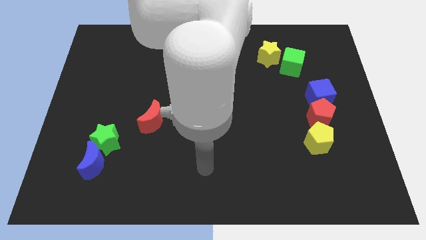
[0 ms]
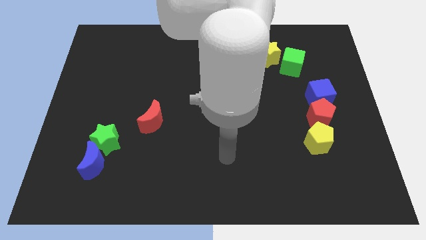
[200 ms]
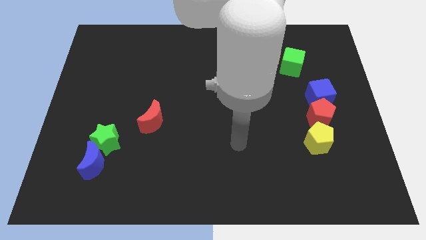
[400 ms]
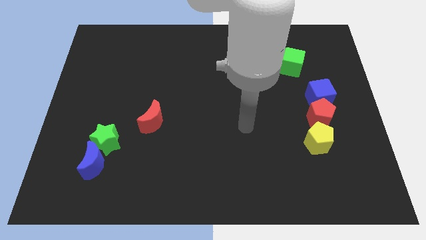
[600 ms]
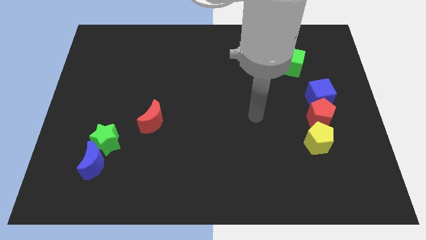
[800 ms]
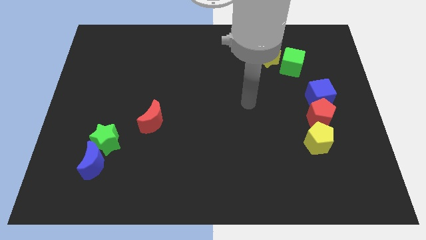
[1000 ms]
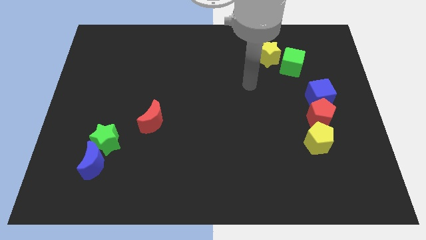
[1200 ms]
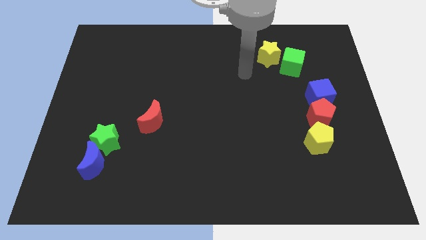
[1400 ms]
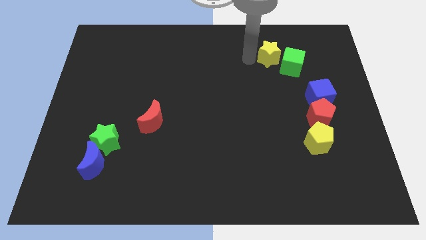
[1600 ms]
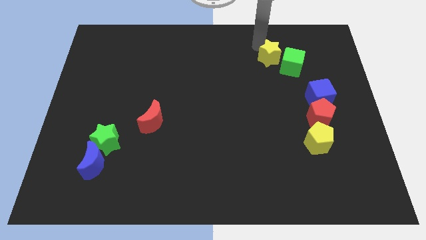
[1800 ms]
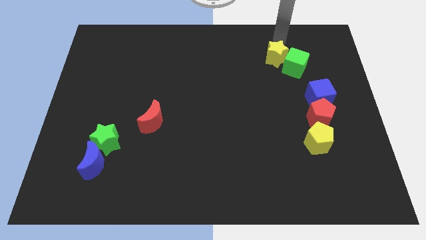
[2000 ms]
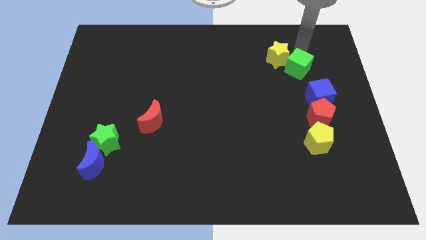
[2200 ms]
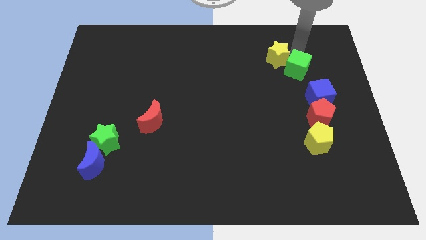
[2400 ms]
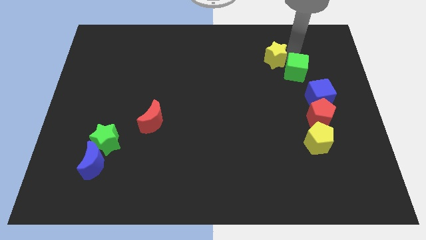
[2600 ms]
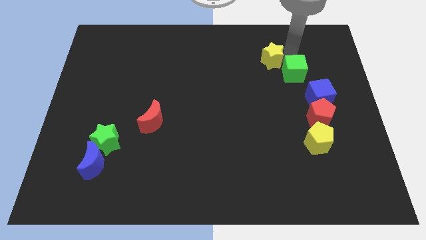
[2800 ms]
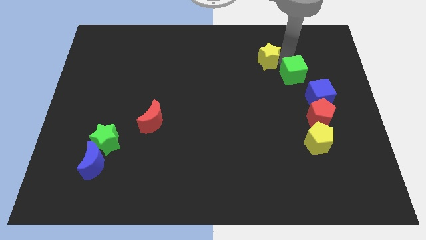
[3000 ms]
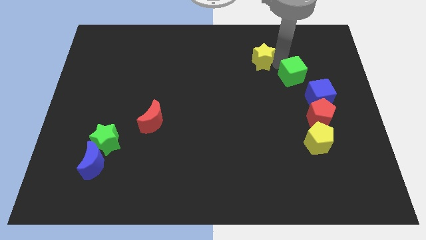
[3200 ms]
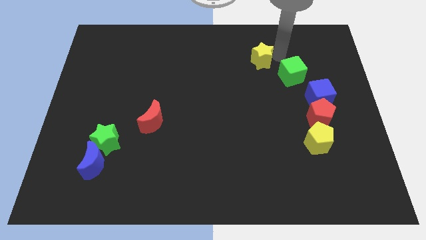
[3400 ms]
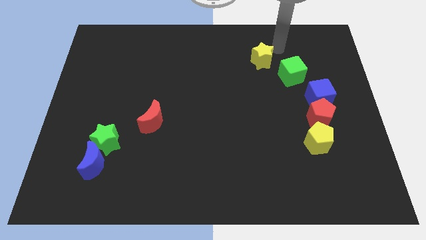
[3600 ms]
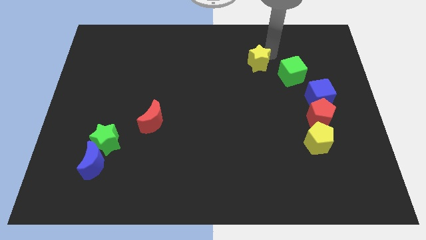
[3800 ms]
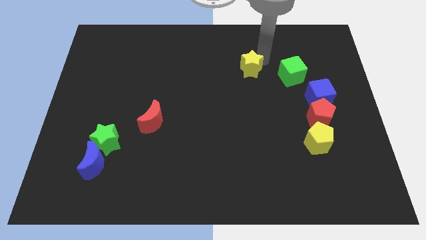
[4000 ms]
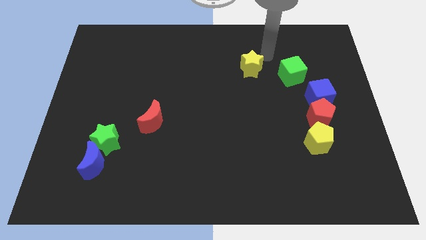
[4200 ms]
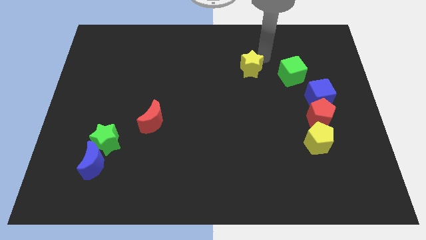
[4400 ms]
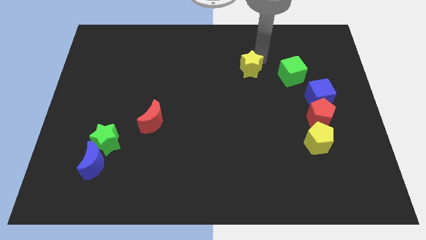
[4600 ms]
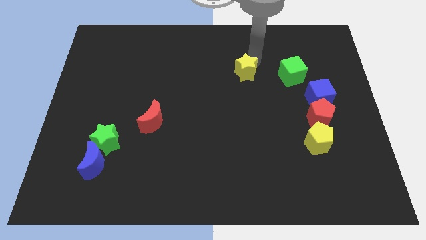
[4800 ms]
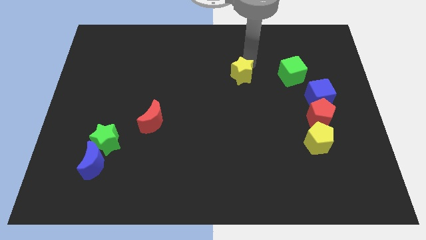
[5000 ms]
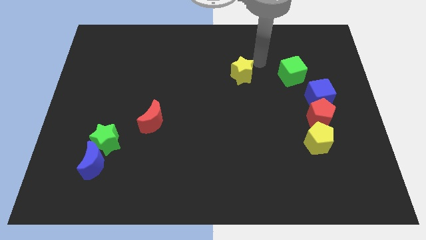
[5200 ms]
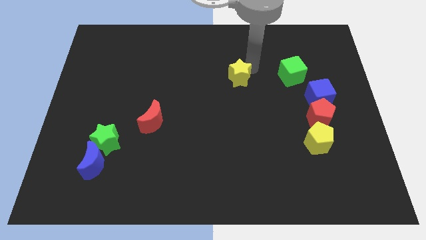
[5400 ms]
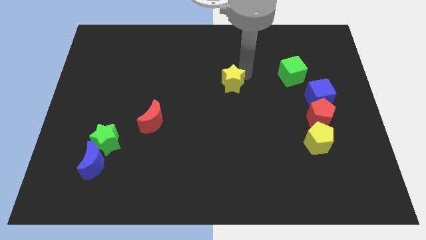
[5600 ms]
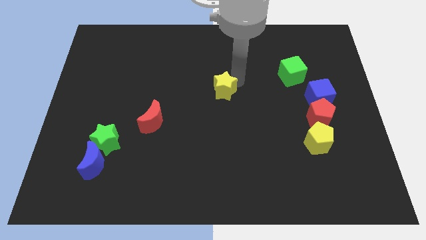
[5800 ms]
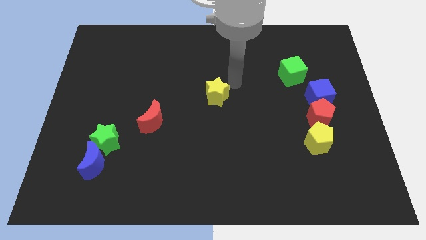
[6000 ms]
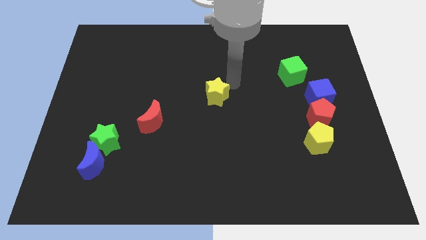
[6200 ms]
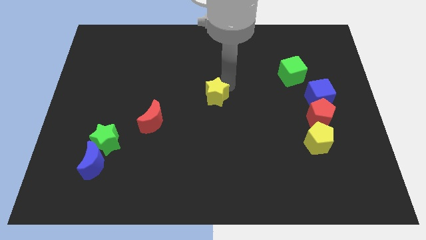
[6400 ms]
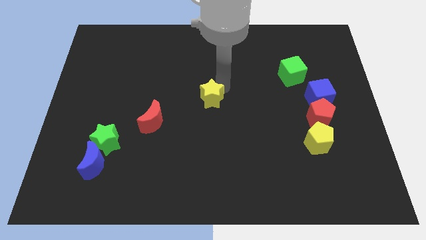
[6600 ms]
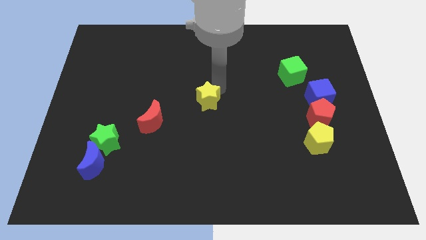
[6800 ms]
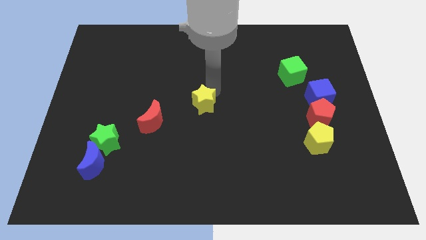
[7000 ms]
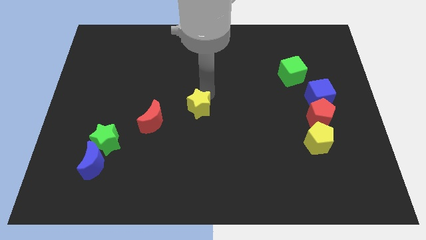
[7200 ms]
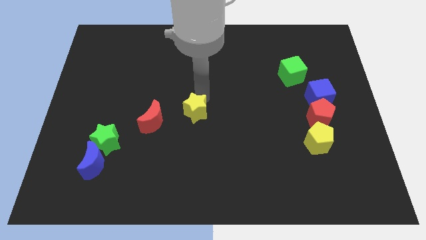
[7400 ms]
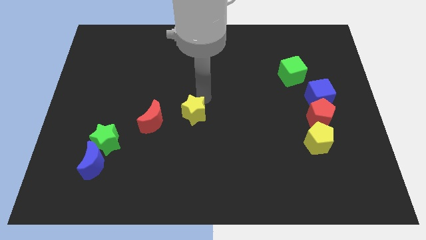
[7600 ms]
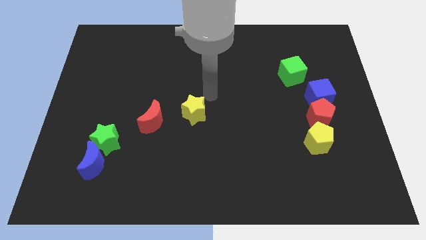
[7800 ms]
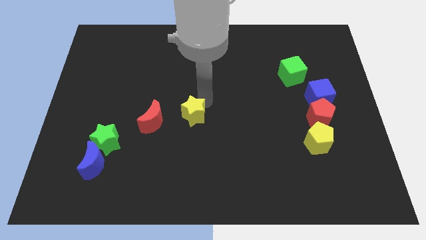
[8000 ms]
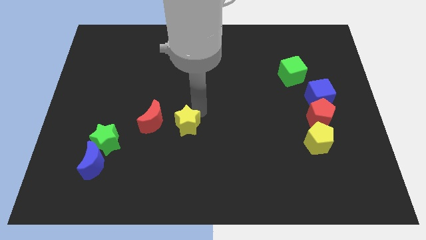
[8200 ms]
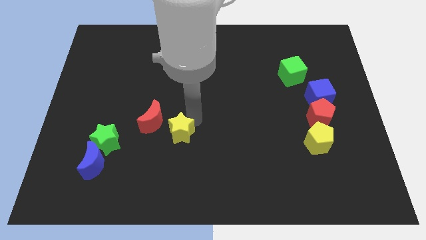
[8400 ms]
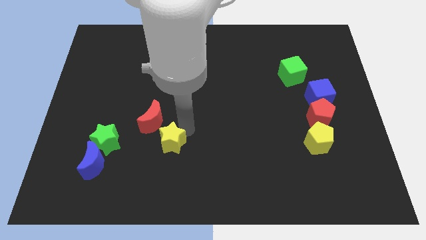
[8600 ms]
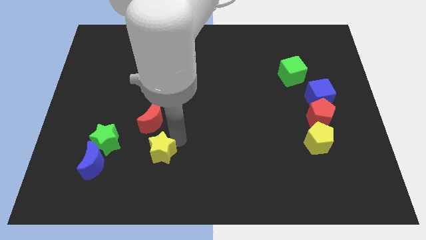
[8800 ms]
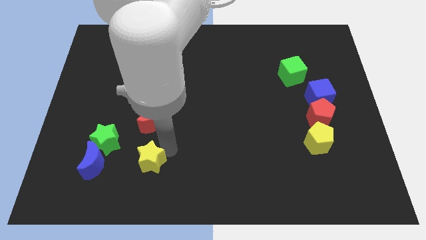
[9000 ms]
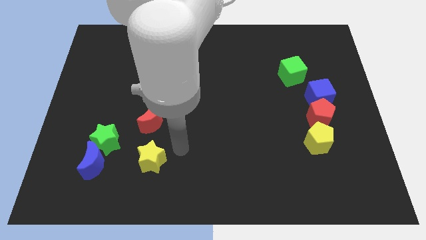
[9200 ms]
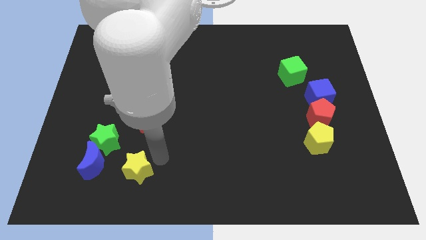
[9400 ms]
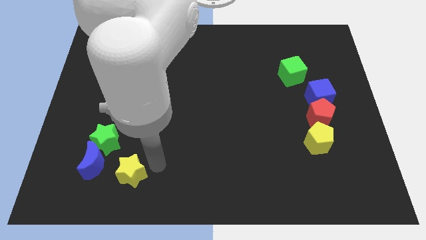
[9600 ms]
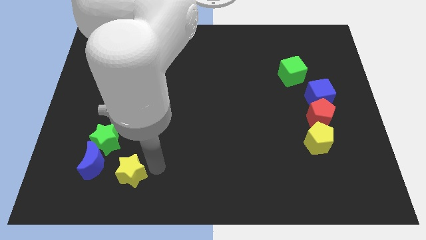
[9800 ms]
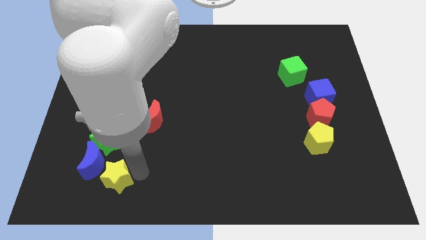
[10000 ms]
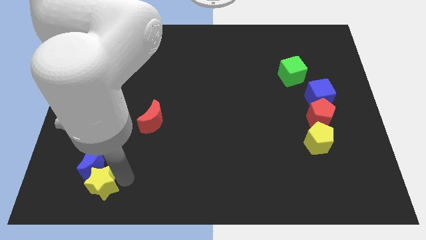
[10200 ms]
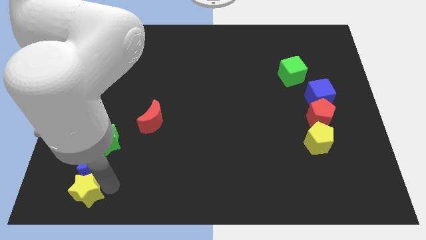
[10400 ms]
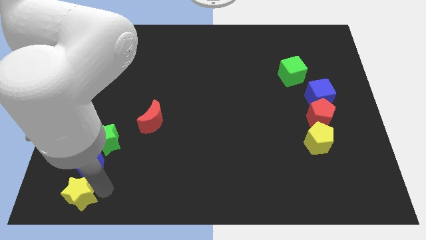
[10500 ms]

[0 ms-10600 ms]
slide the yellow star to the bottom left corner

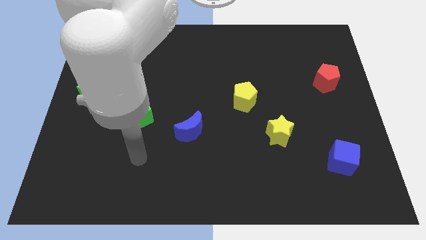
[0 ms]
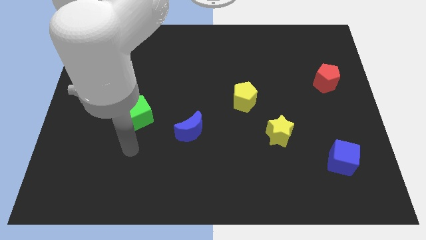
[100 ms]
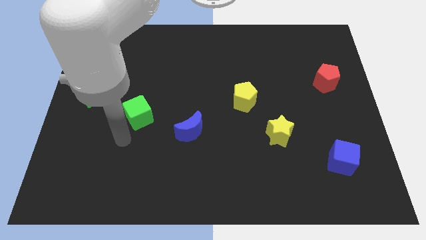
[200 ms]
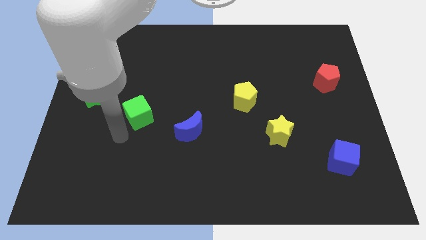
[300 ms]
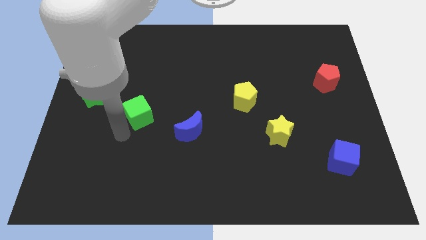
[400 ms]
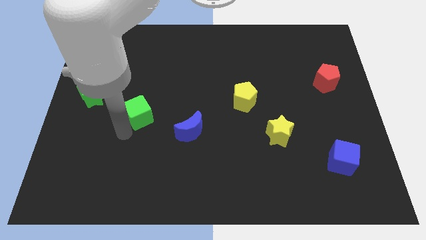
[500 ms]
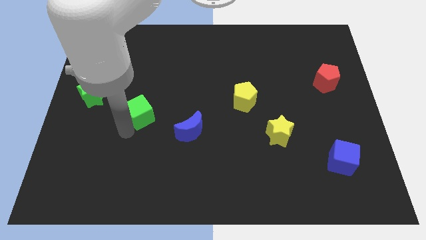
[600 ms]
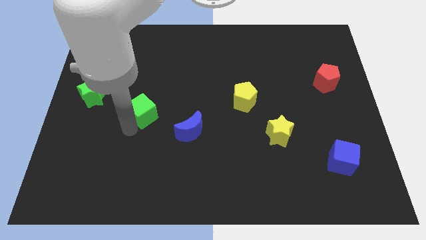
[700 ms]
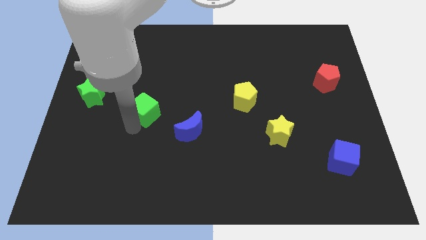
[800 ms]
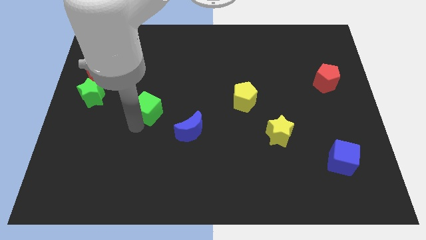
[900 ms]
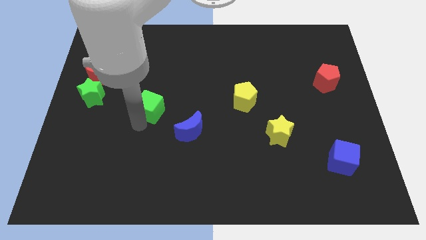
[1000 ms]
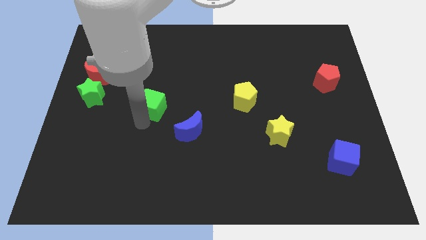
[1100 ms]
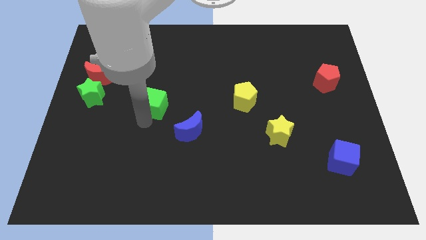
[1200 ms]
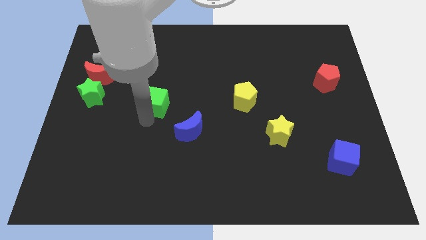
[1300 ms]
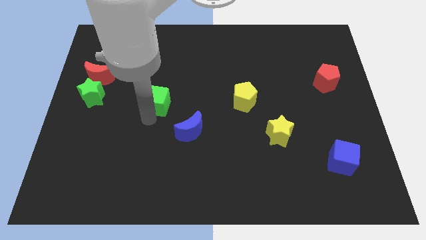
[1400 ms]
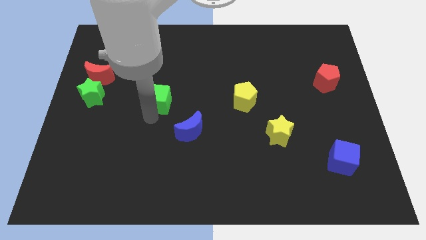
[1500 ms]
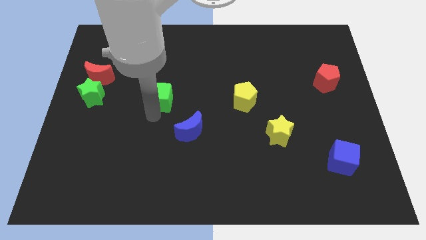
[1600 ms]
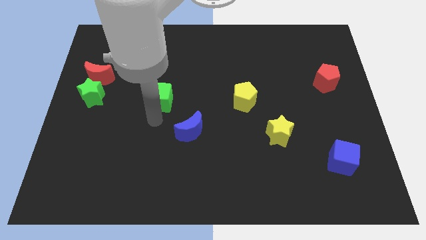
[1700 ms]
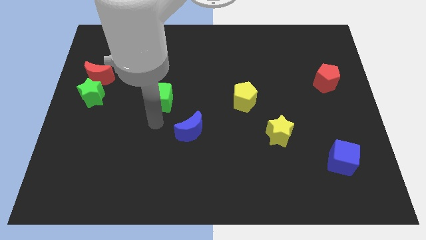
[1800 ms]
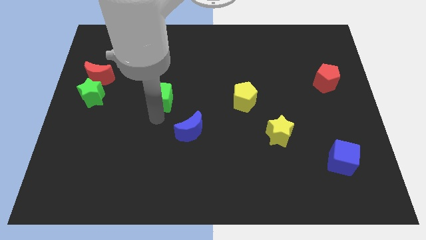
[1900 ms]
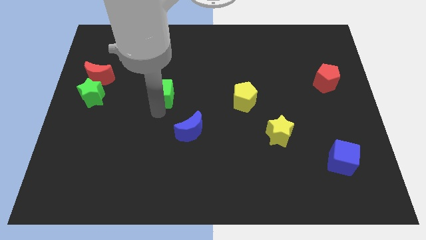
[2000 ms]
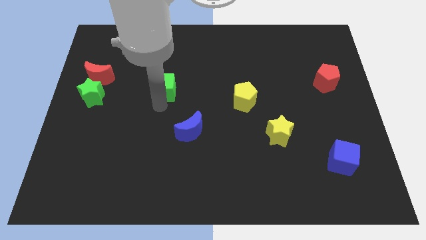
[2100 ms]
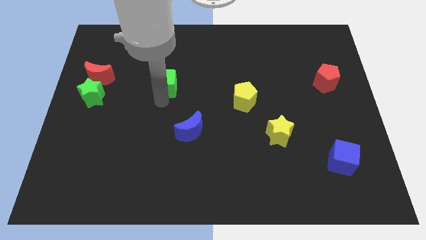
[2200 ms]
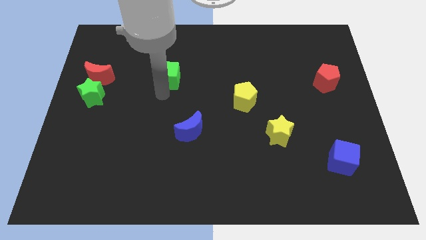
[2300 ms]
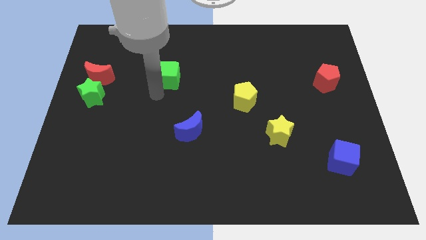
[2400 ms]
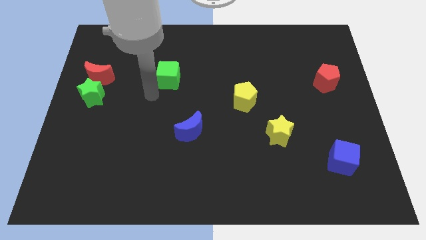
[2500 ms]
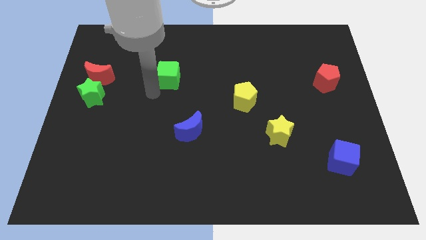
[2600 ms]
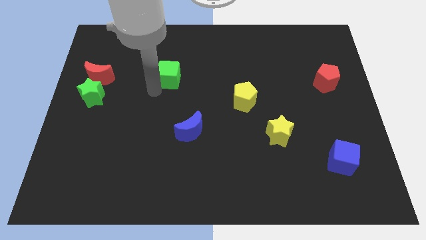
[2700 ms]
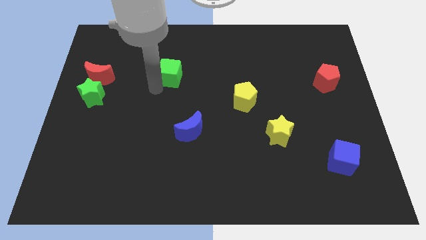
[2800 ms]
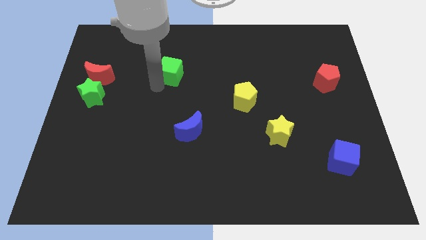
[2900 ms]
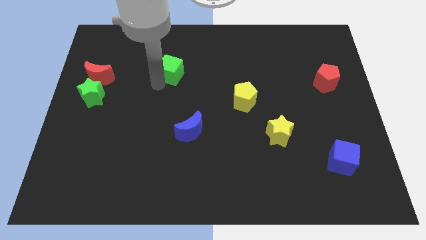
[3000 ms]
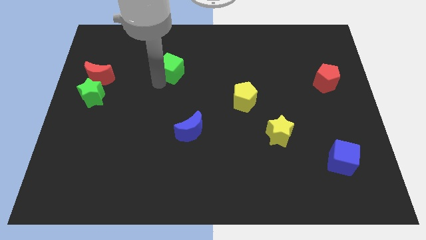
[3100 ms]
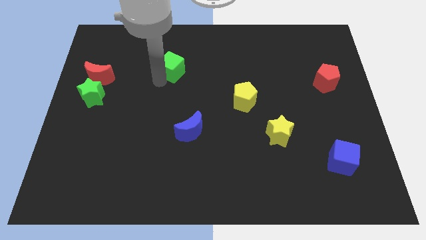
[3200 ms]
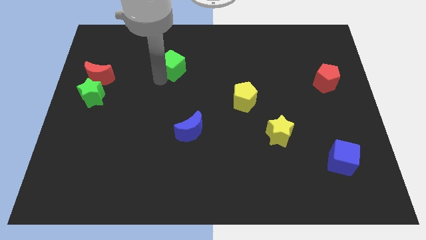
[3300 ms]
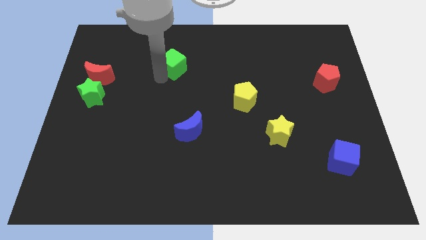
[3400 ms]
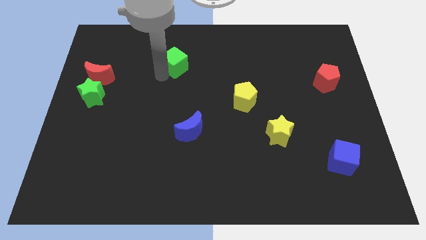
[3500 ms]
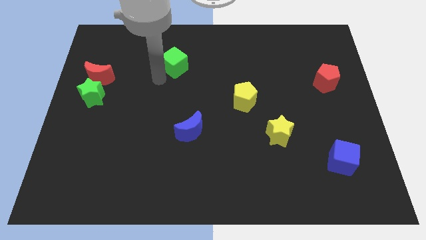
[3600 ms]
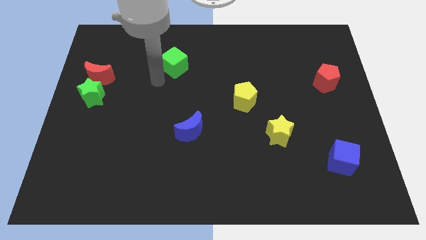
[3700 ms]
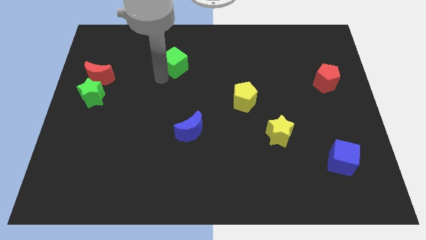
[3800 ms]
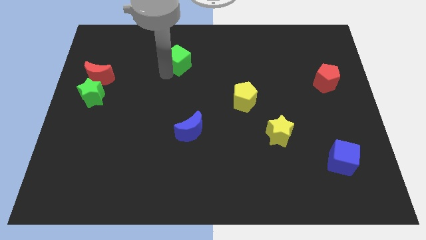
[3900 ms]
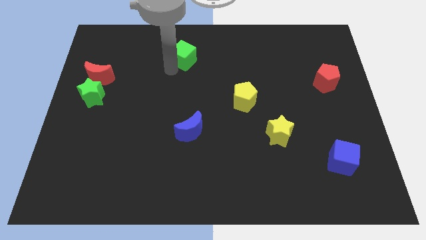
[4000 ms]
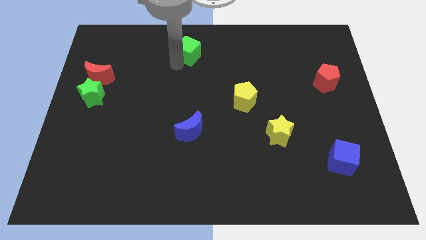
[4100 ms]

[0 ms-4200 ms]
put the green cube to the towards your base
